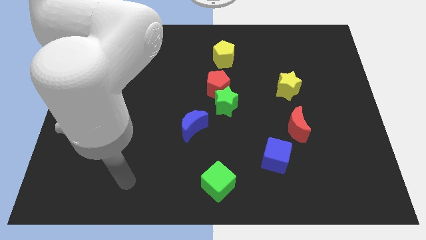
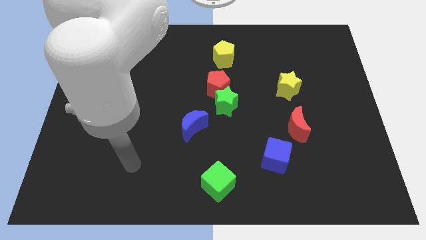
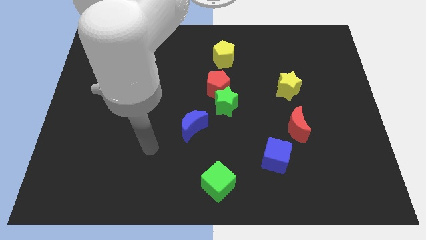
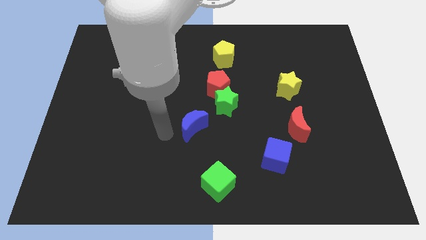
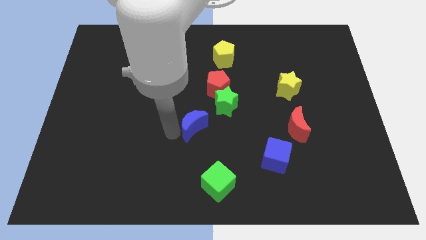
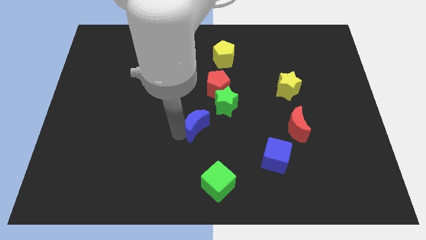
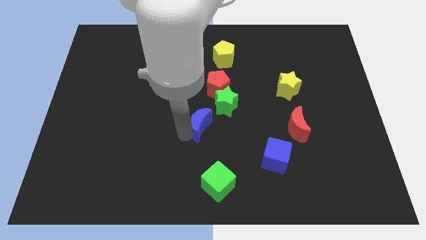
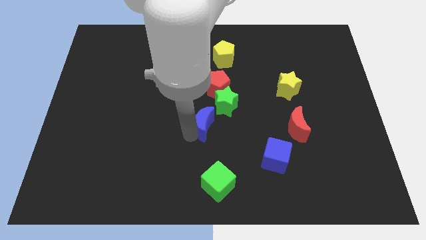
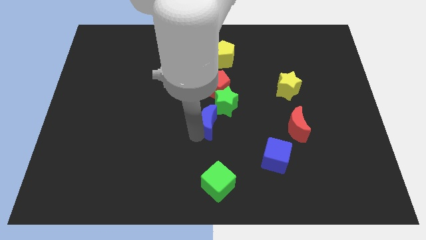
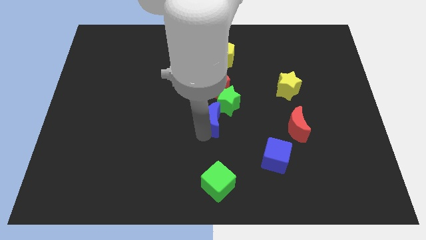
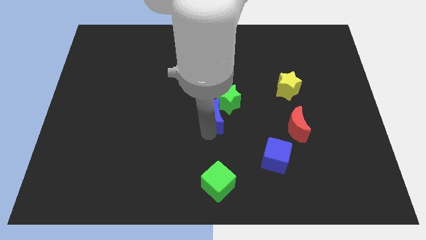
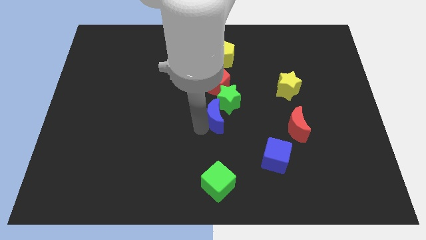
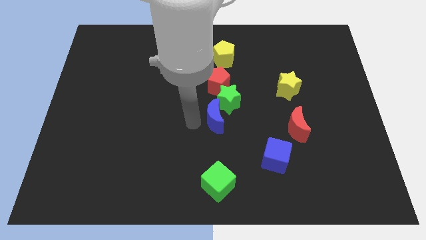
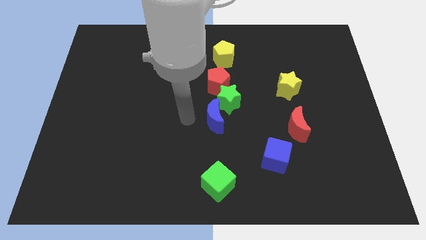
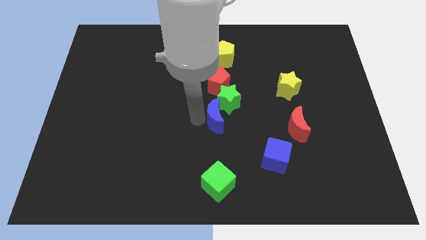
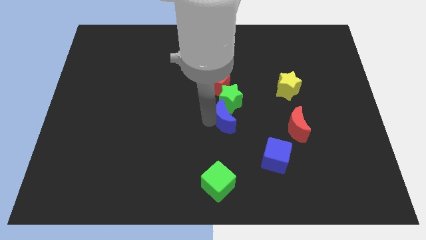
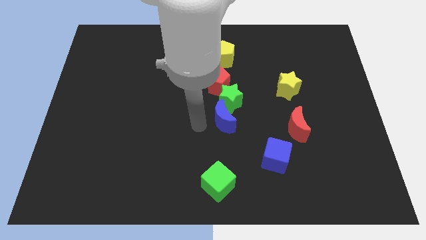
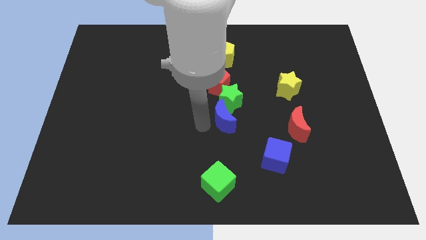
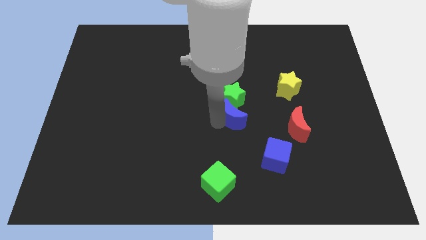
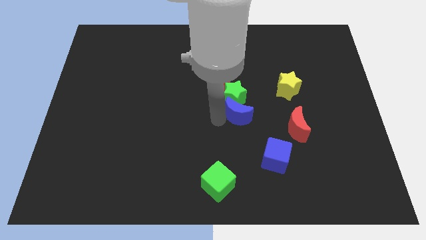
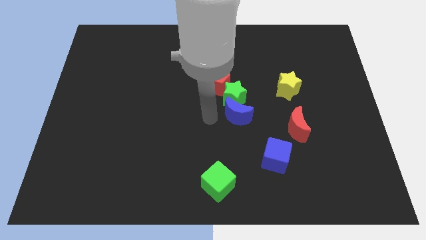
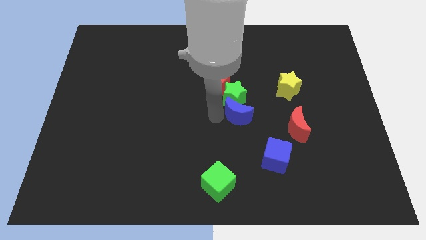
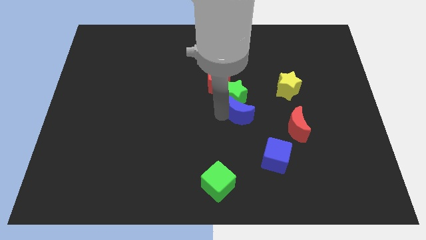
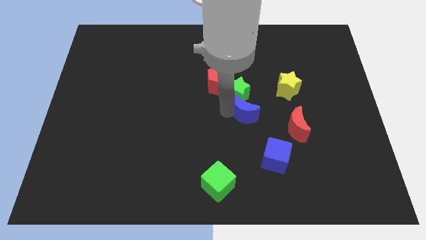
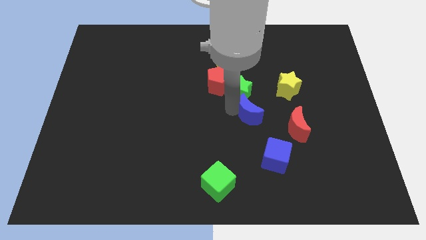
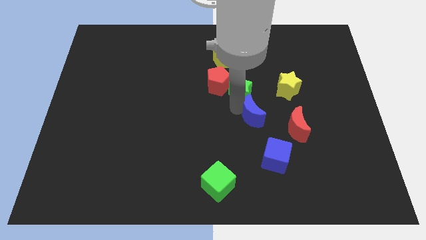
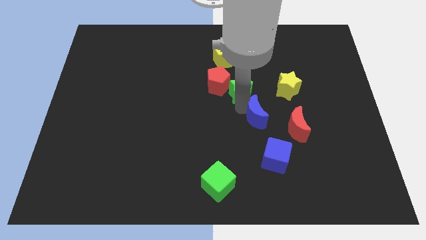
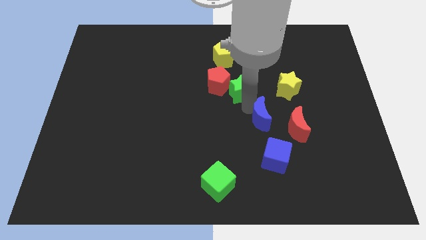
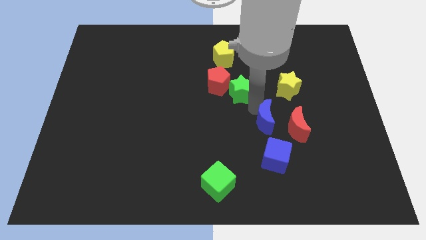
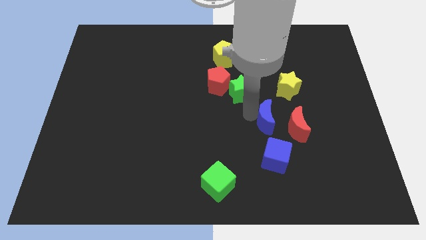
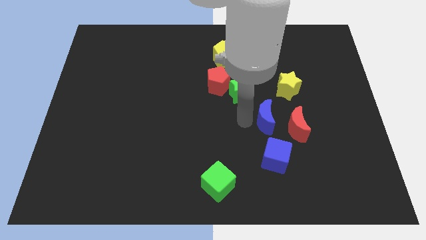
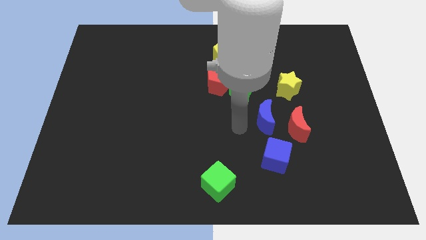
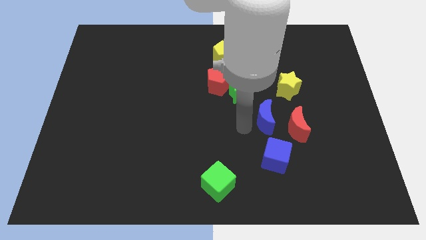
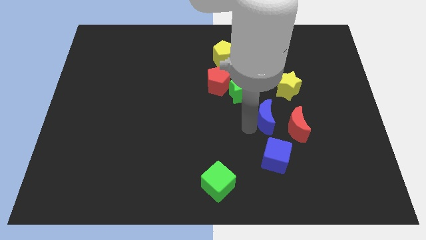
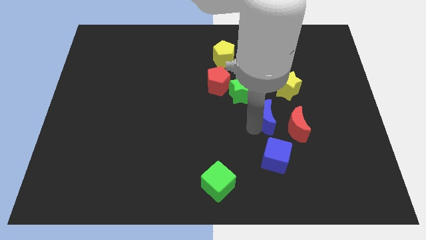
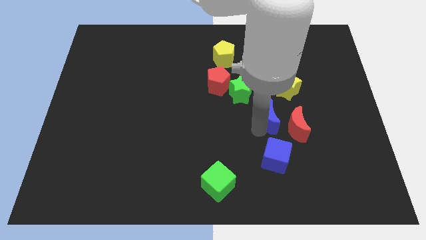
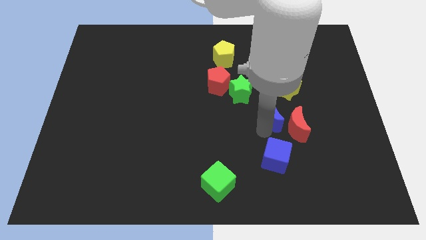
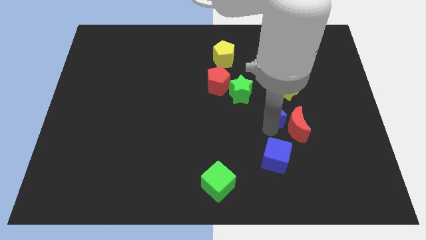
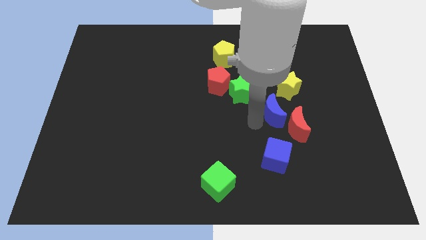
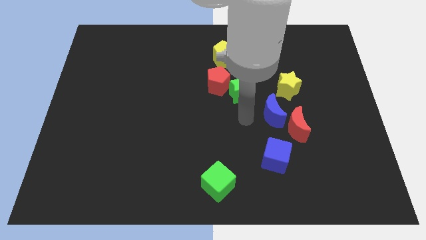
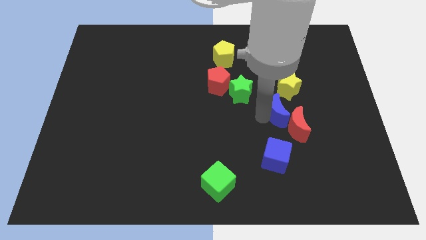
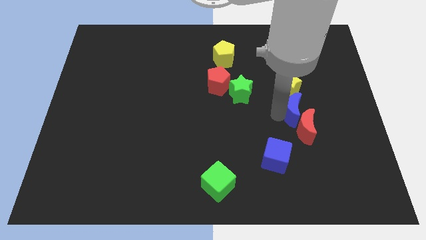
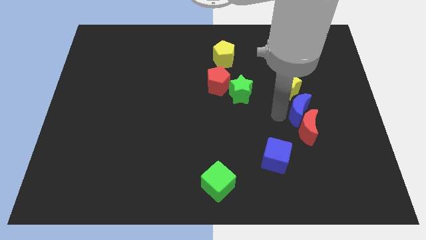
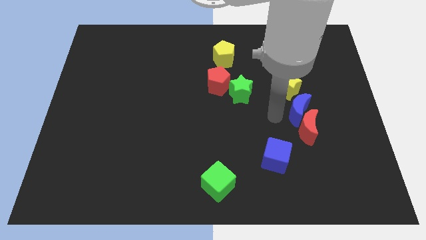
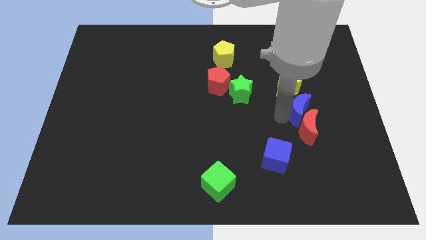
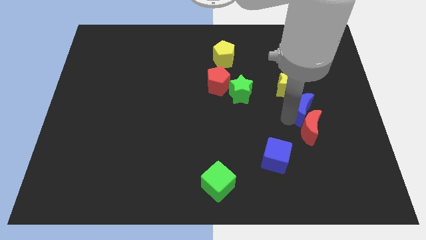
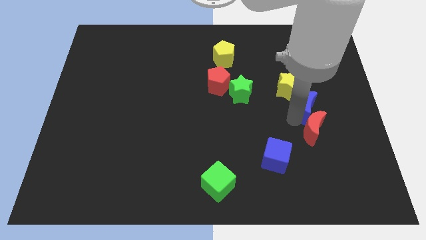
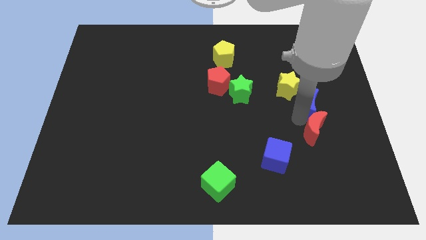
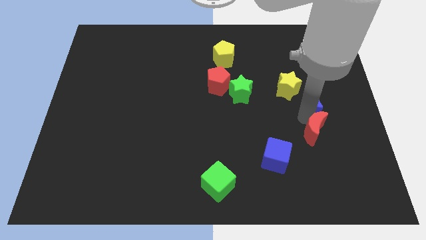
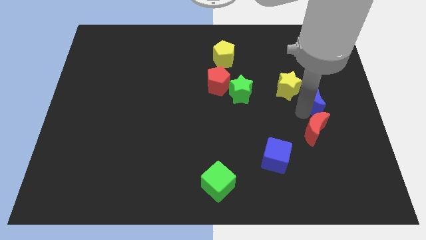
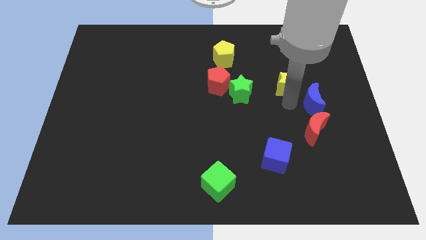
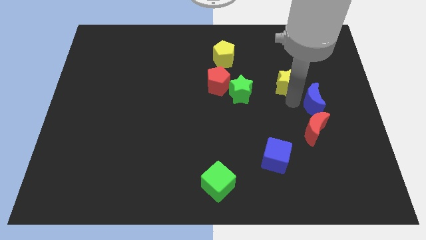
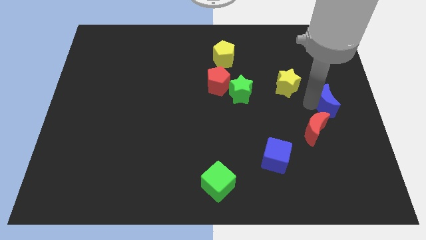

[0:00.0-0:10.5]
slide the blue moon to the center right

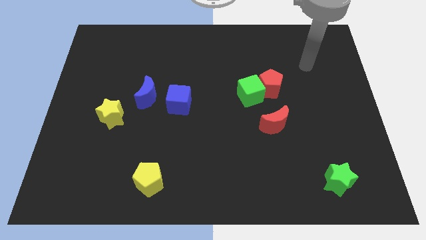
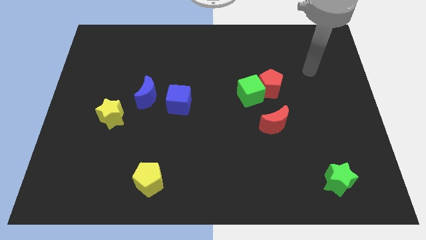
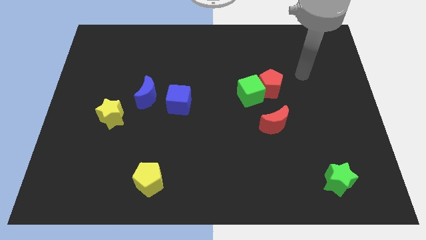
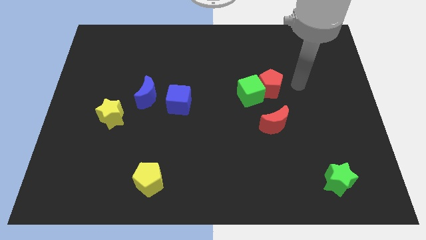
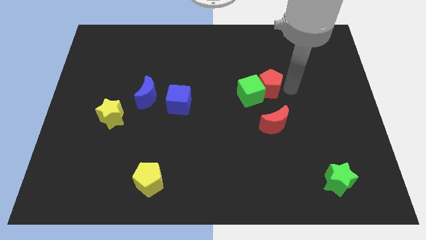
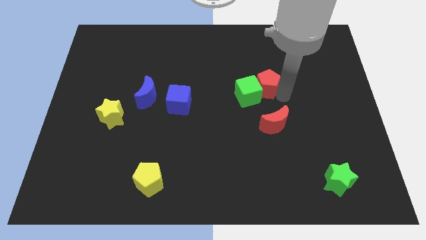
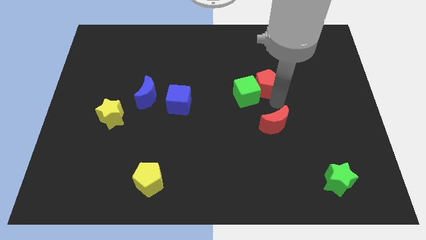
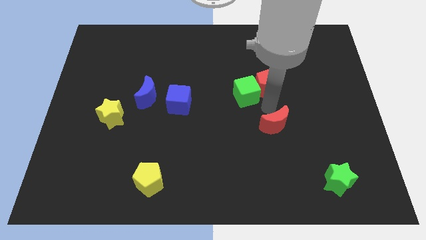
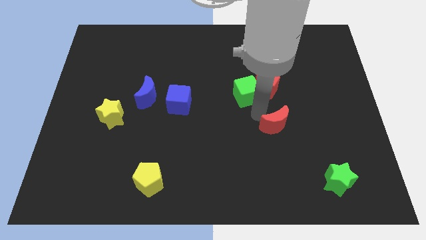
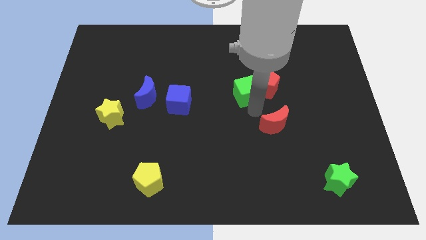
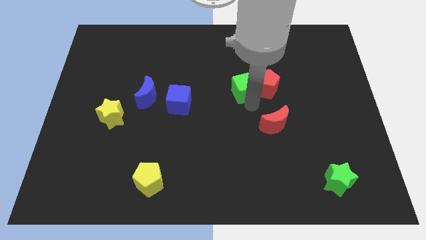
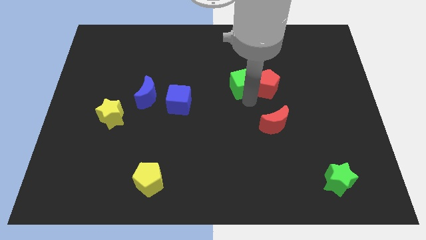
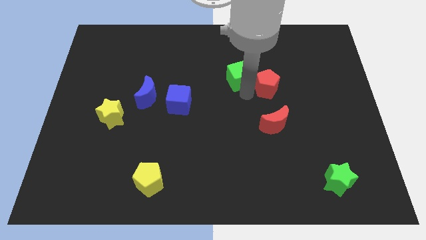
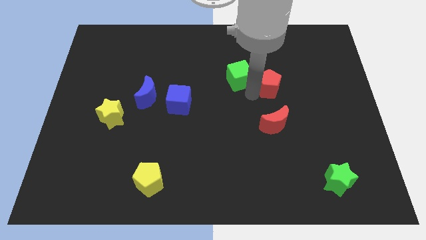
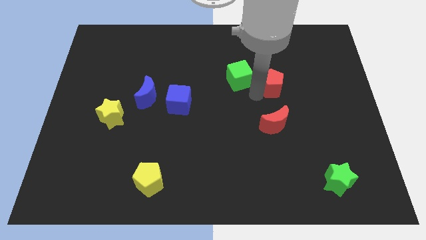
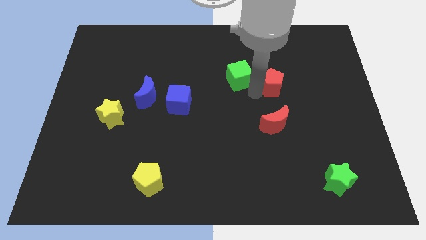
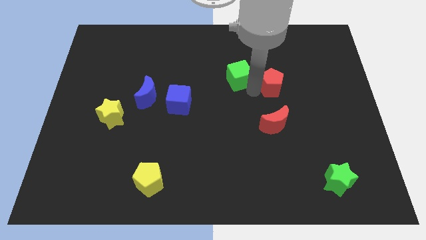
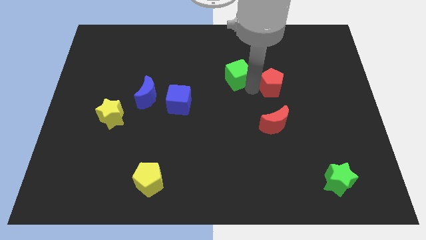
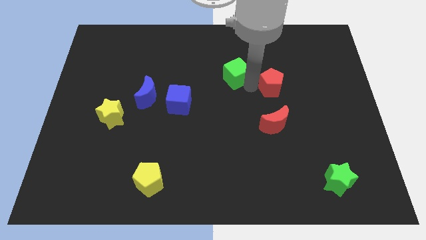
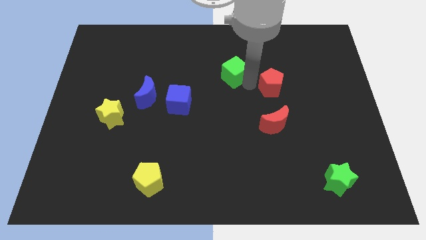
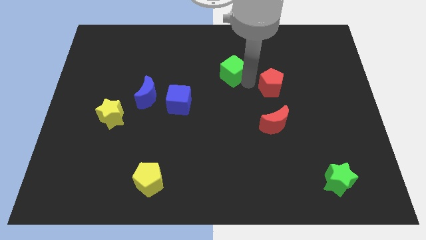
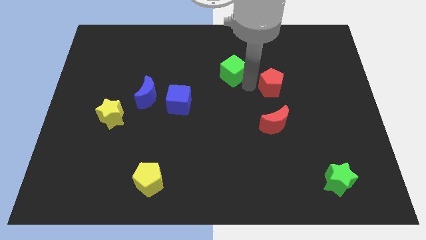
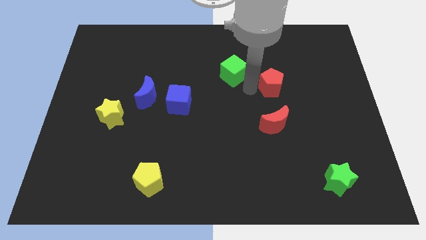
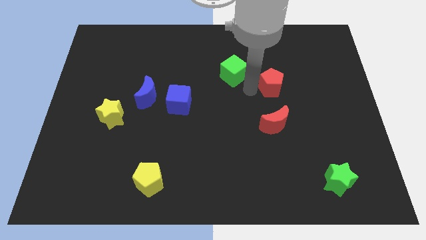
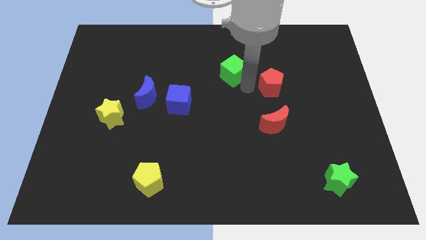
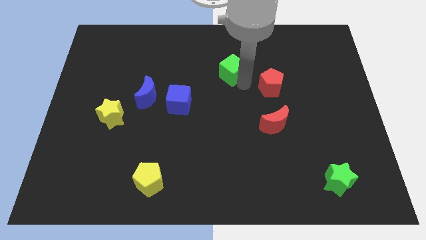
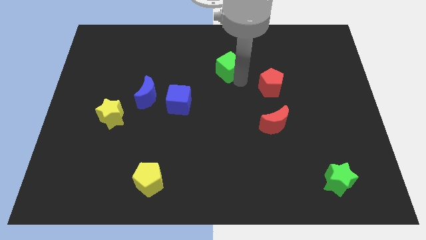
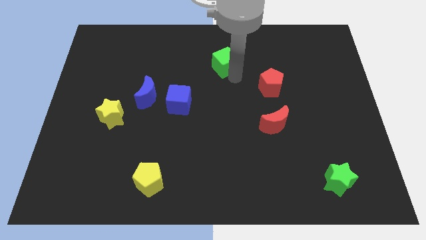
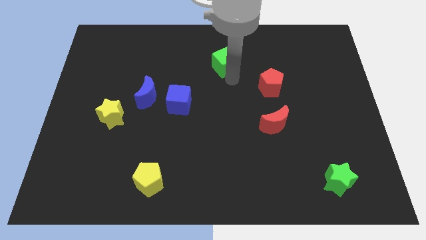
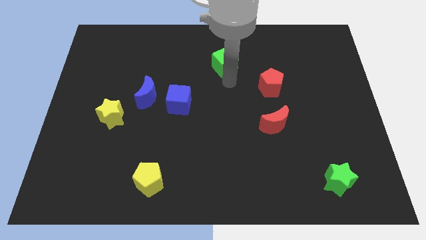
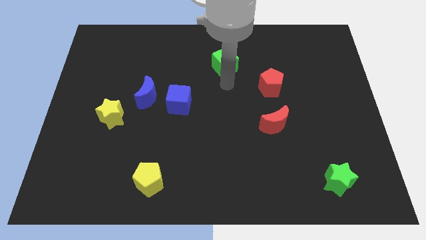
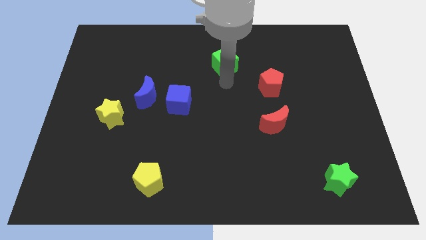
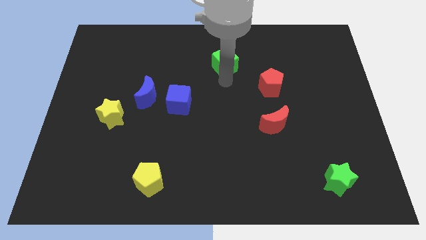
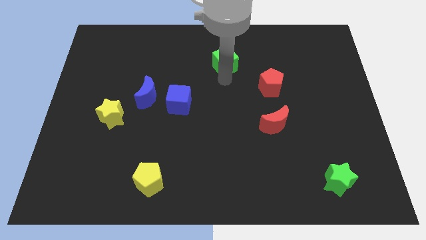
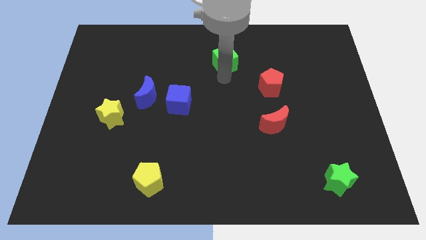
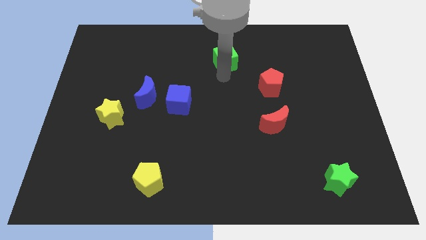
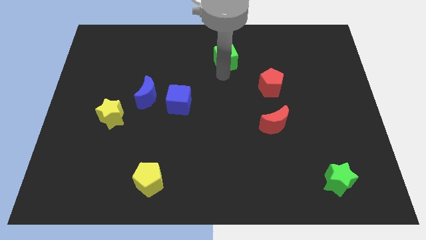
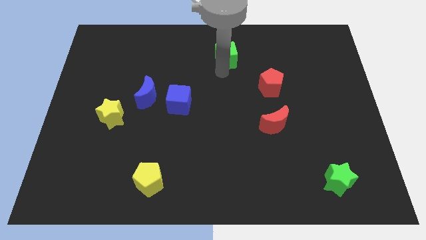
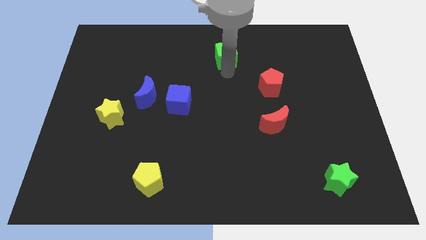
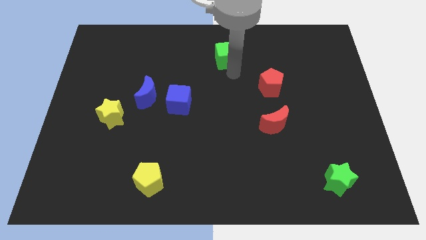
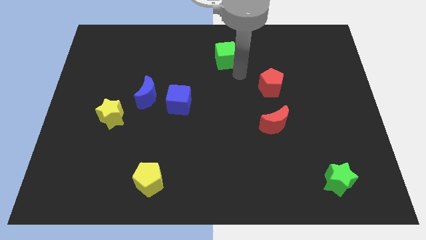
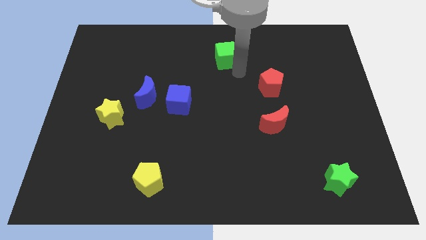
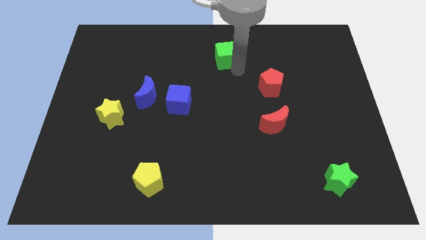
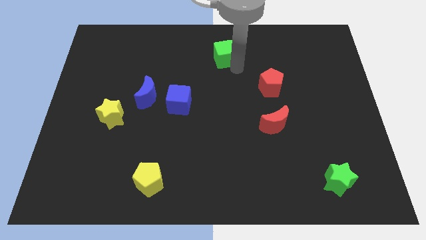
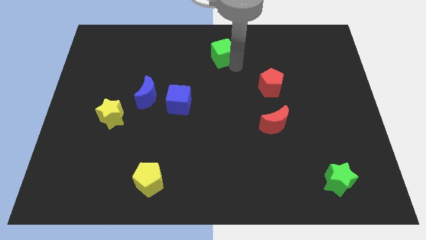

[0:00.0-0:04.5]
slide the green cube to the towards your base
